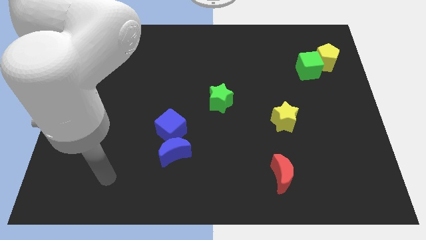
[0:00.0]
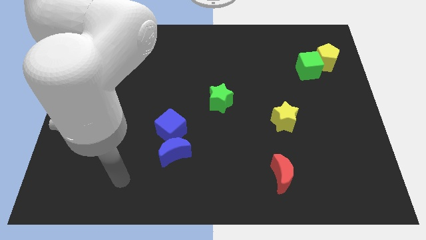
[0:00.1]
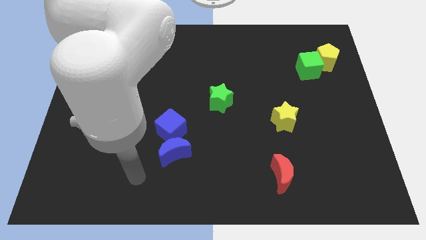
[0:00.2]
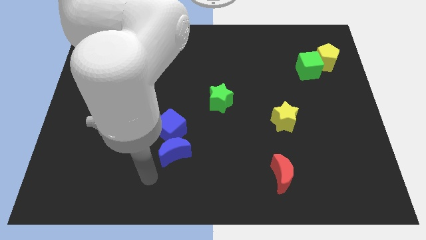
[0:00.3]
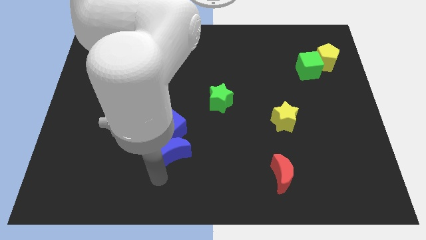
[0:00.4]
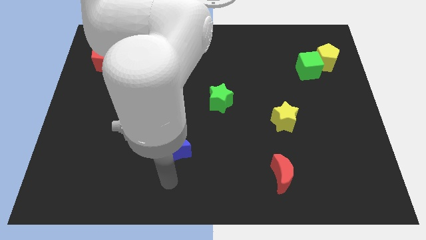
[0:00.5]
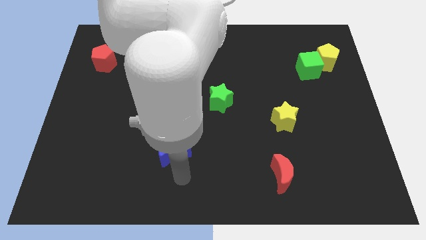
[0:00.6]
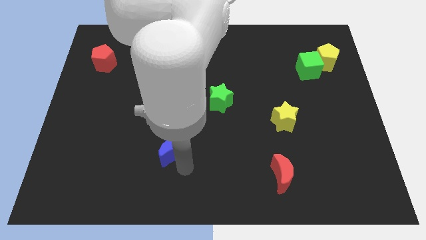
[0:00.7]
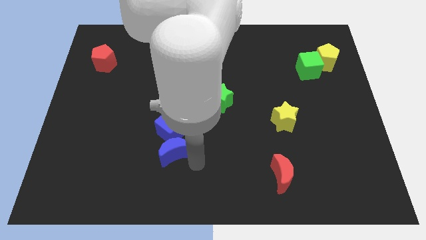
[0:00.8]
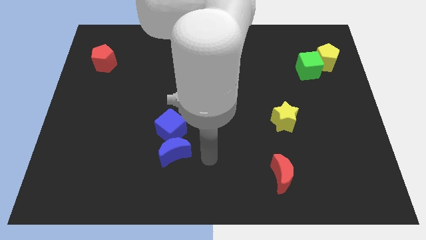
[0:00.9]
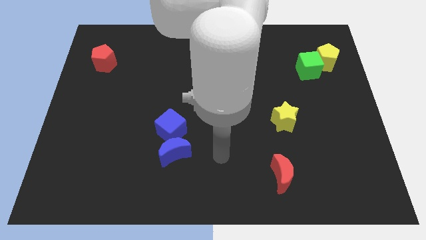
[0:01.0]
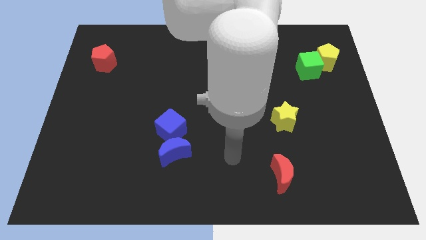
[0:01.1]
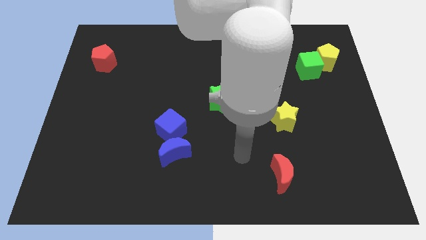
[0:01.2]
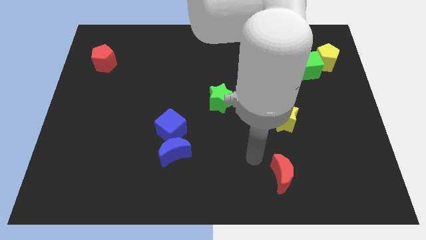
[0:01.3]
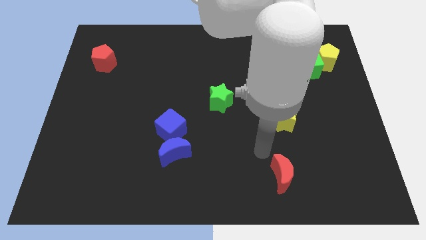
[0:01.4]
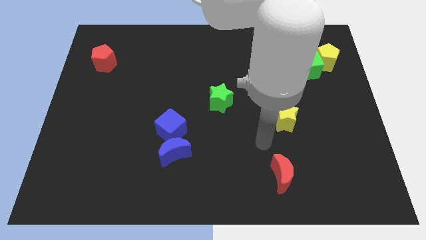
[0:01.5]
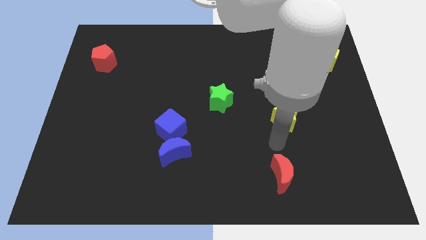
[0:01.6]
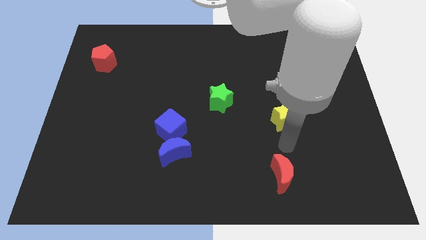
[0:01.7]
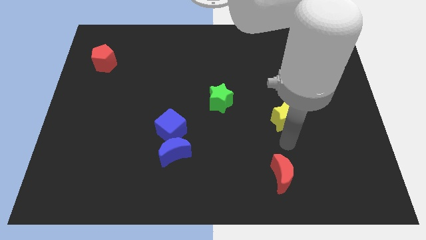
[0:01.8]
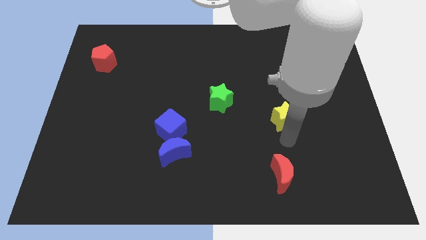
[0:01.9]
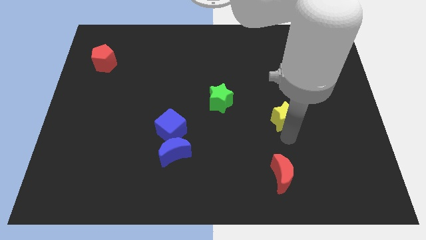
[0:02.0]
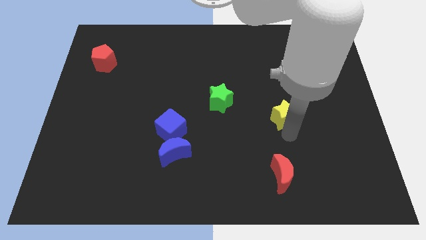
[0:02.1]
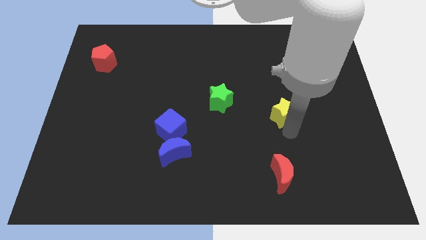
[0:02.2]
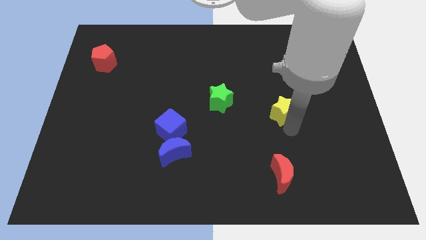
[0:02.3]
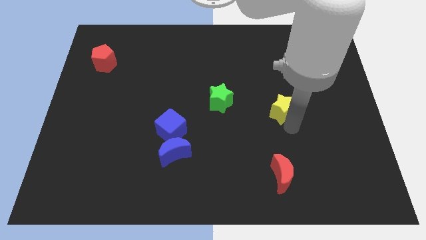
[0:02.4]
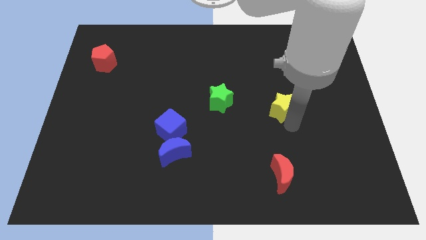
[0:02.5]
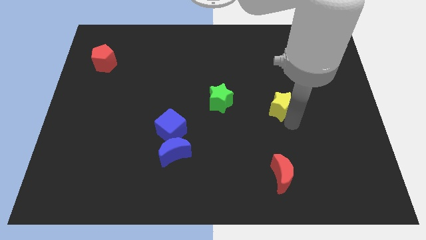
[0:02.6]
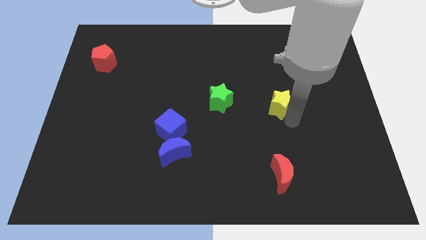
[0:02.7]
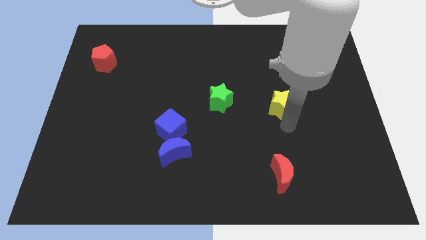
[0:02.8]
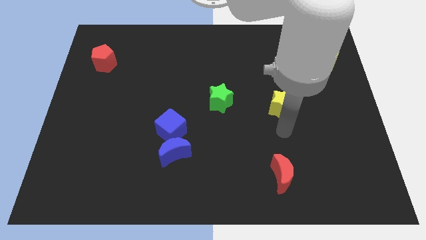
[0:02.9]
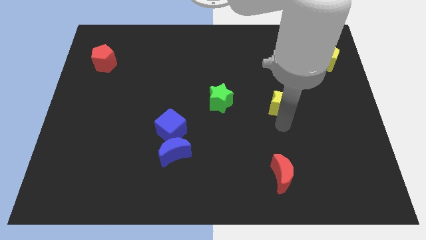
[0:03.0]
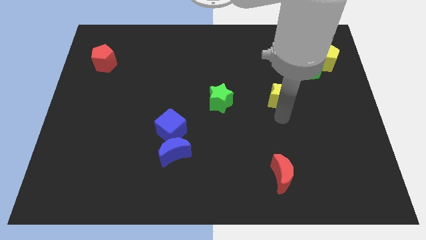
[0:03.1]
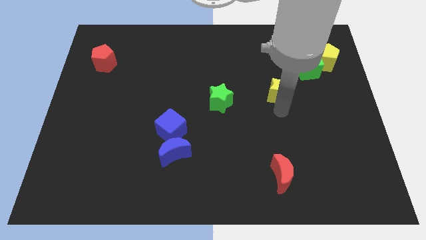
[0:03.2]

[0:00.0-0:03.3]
slide the yellow star slightly upwards

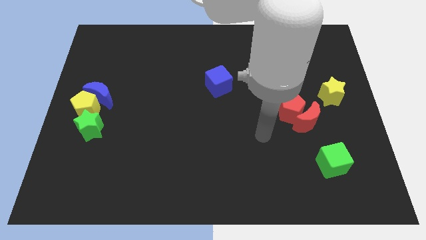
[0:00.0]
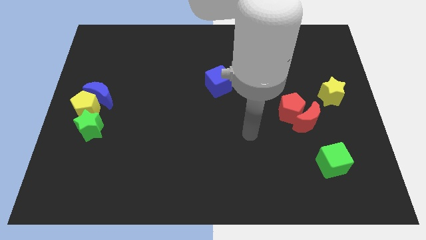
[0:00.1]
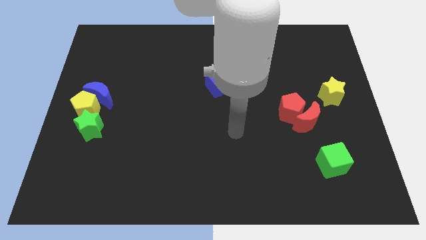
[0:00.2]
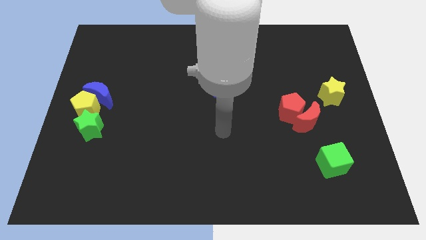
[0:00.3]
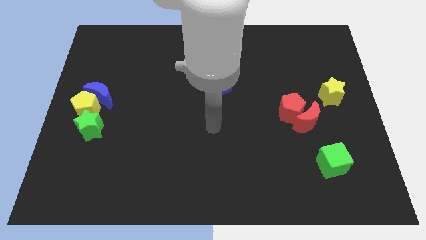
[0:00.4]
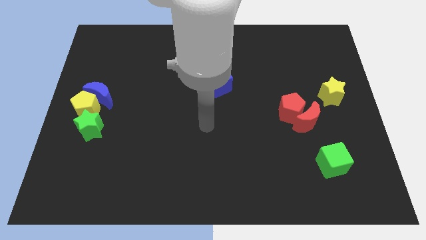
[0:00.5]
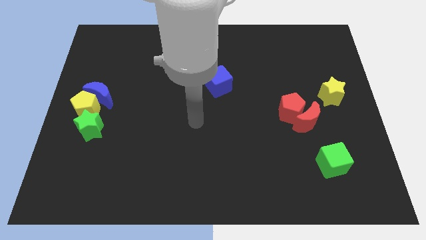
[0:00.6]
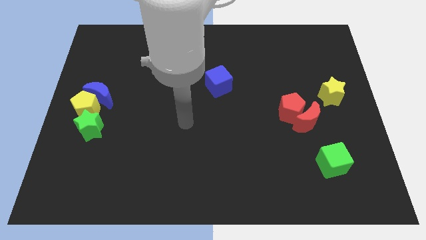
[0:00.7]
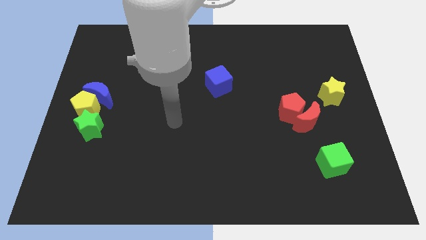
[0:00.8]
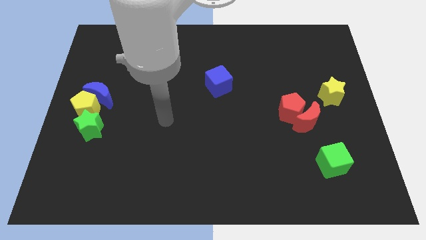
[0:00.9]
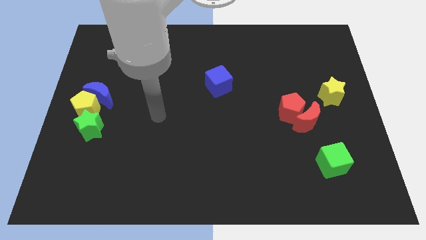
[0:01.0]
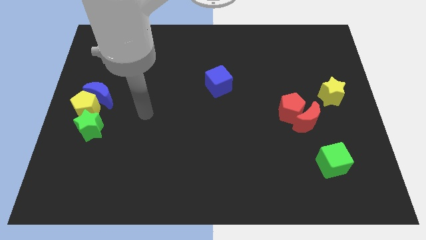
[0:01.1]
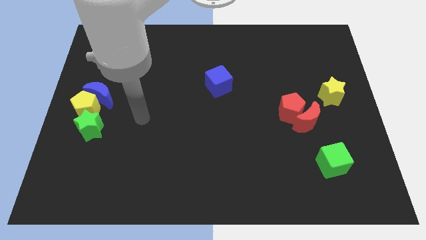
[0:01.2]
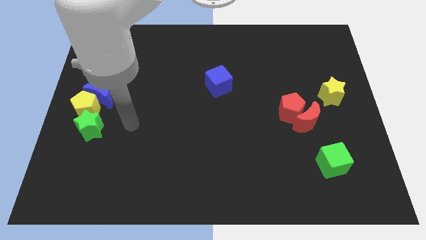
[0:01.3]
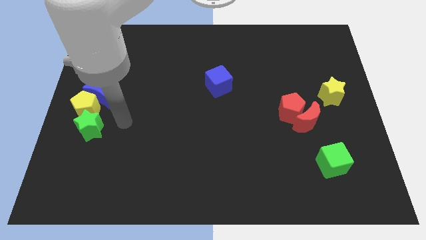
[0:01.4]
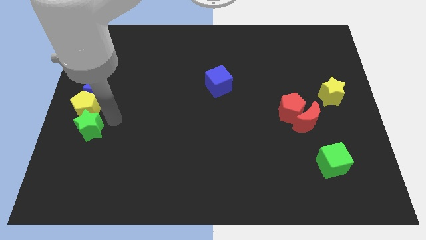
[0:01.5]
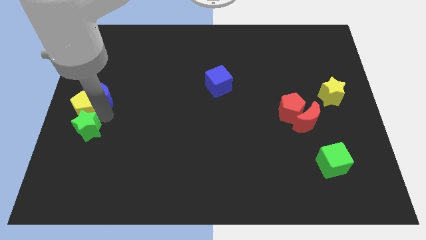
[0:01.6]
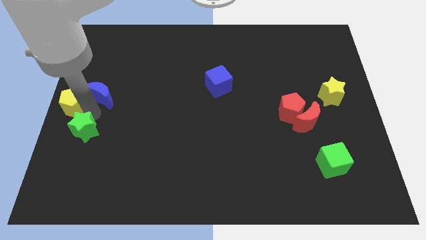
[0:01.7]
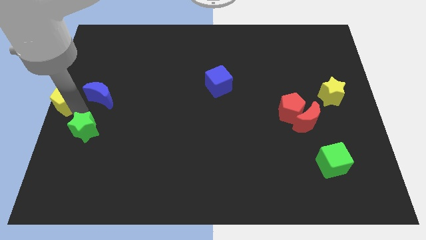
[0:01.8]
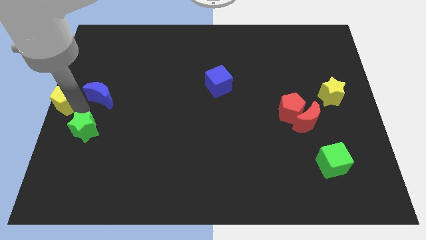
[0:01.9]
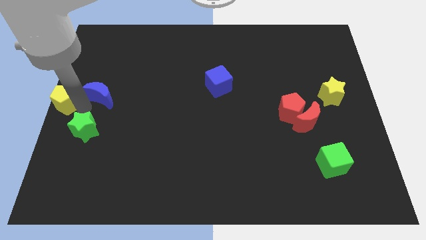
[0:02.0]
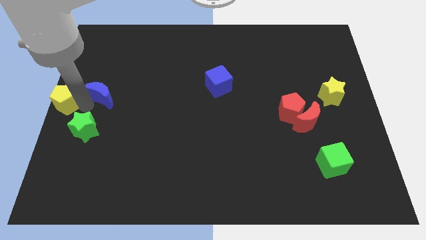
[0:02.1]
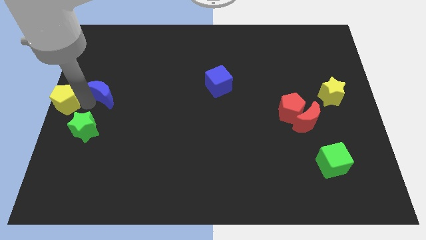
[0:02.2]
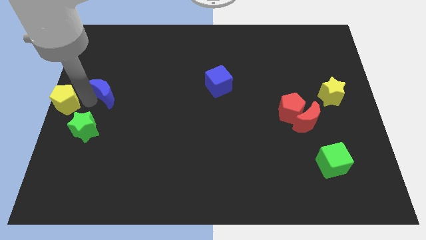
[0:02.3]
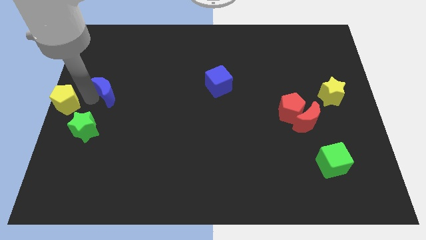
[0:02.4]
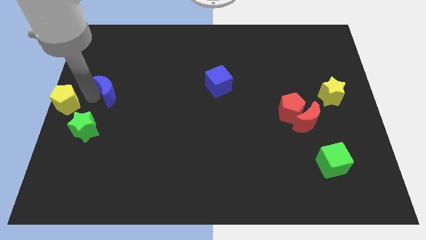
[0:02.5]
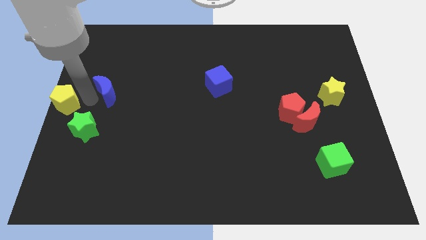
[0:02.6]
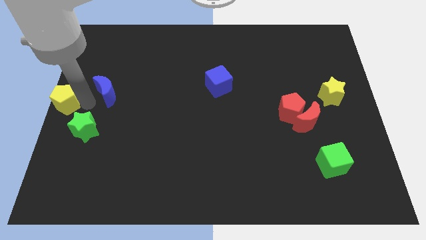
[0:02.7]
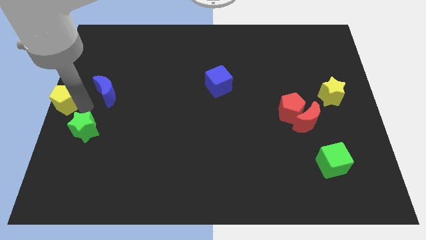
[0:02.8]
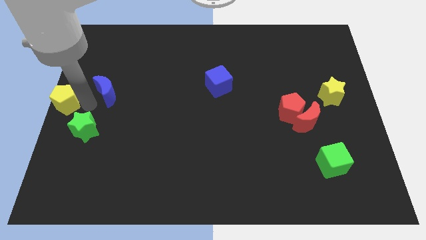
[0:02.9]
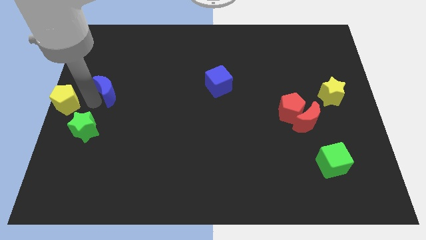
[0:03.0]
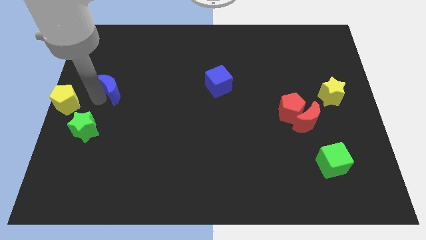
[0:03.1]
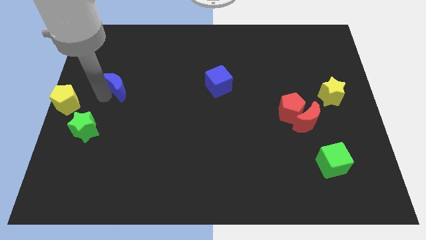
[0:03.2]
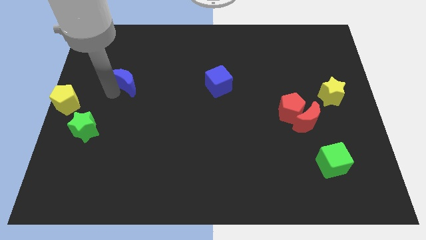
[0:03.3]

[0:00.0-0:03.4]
push the blue moon a little up and to the right

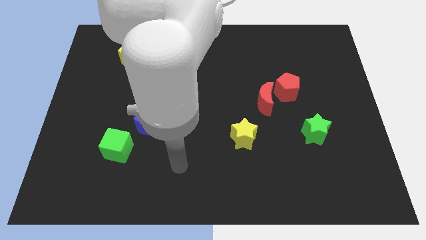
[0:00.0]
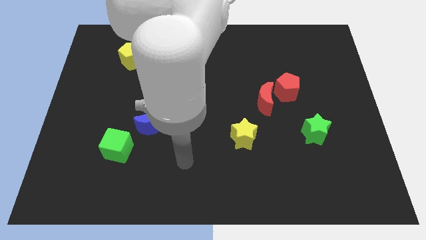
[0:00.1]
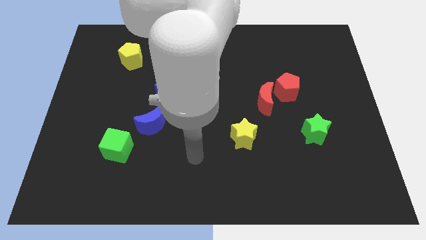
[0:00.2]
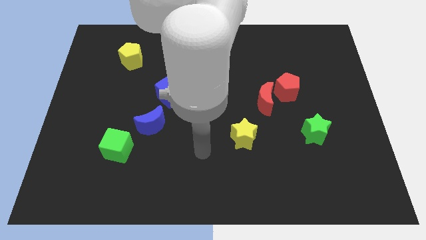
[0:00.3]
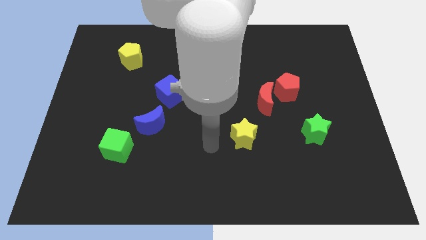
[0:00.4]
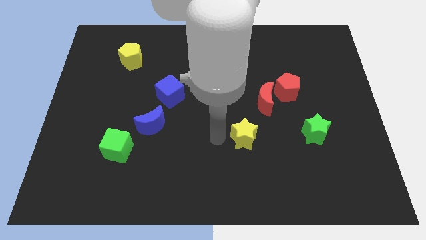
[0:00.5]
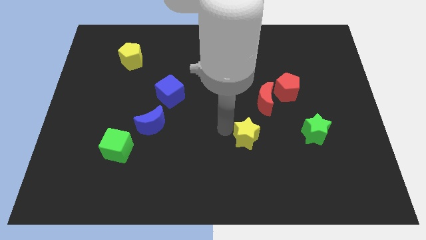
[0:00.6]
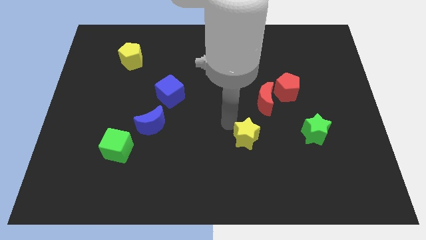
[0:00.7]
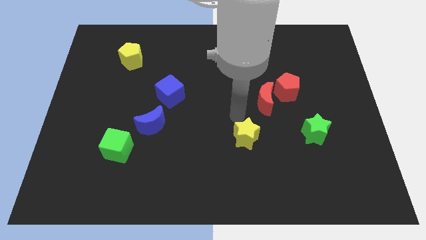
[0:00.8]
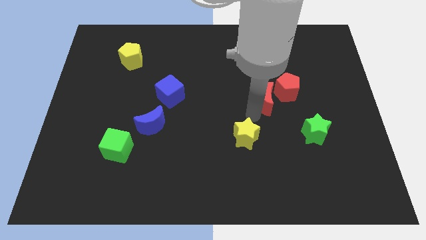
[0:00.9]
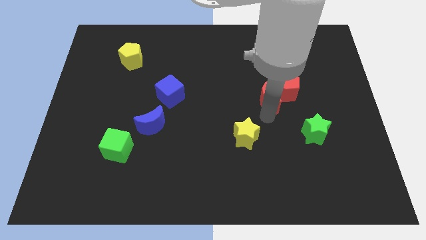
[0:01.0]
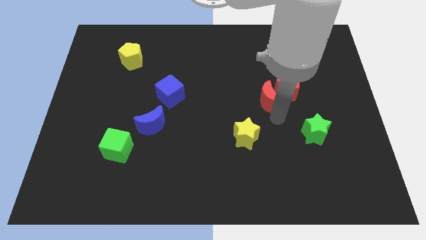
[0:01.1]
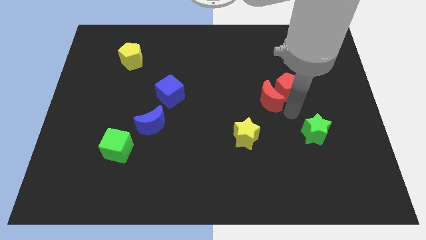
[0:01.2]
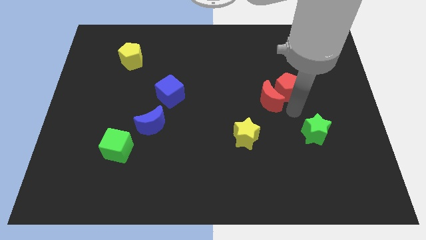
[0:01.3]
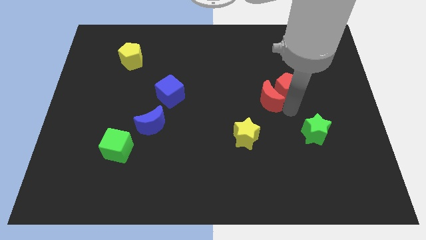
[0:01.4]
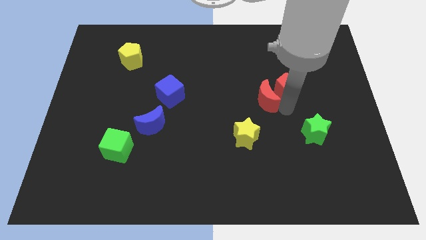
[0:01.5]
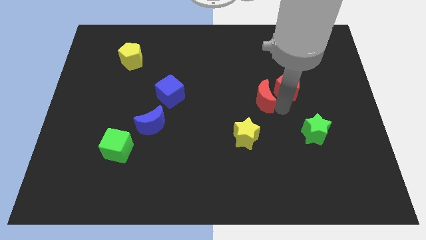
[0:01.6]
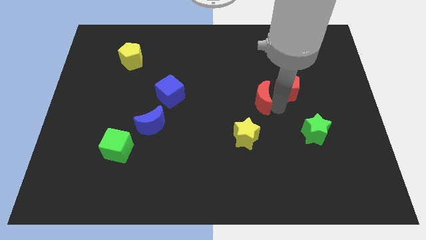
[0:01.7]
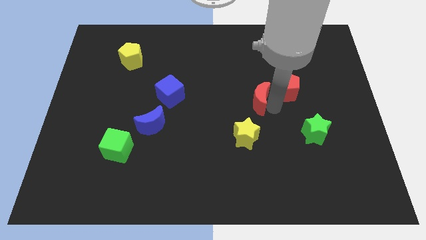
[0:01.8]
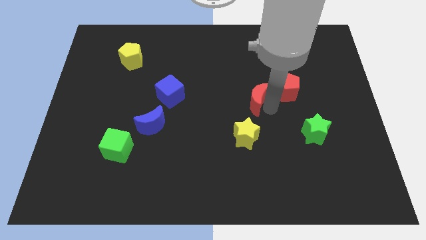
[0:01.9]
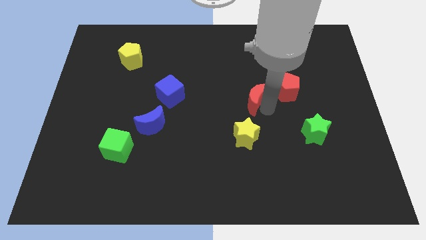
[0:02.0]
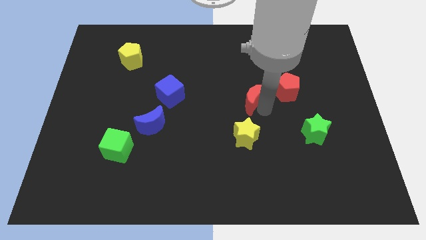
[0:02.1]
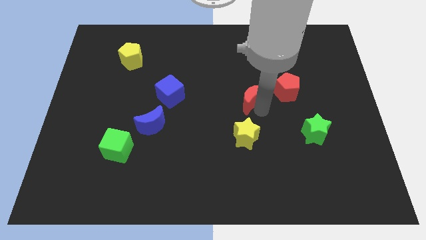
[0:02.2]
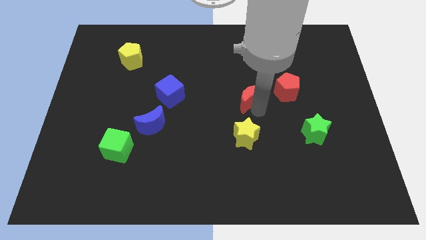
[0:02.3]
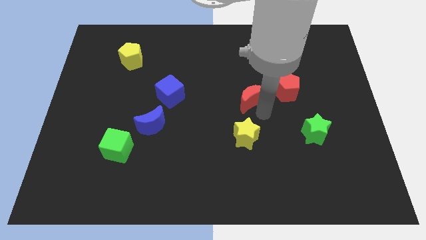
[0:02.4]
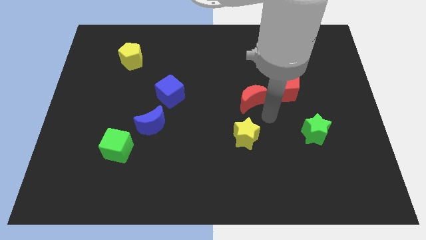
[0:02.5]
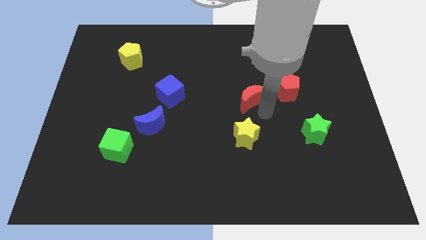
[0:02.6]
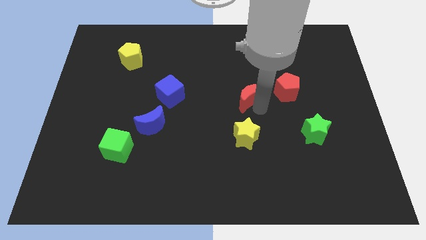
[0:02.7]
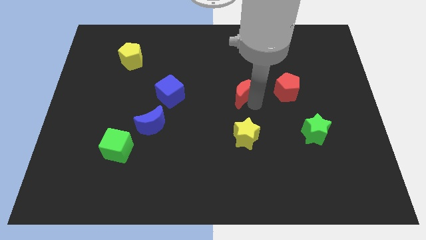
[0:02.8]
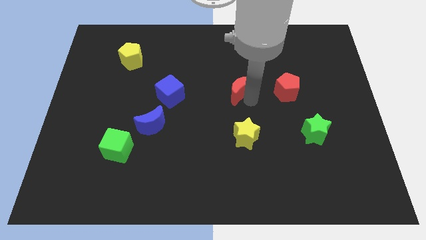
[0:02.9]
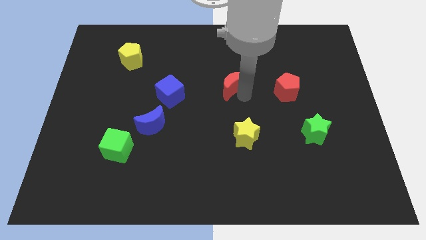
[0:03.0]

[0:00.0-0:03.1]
slide the red moon slightly diagonally upwards and left
